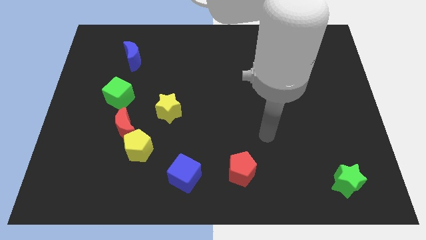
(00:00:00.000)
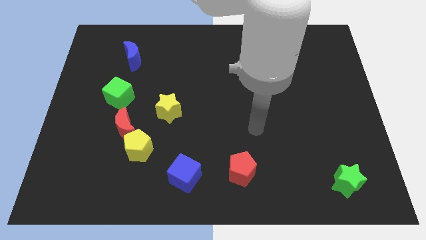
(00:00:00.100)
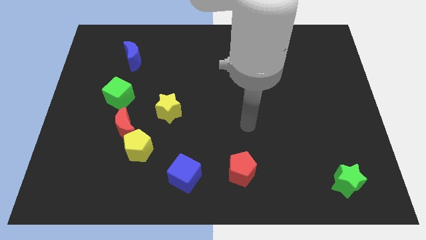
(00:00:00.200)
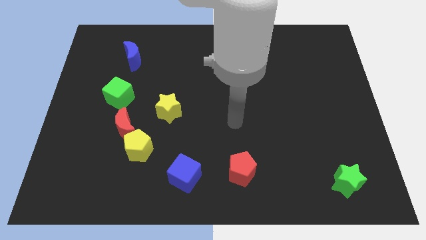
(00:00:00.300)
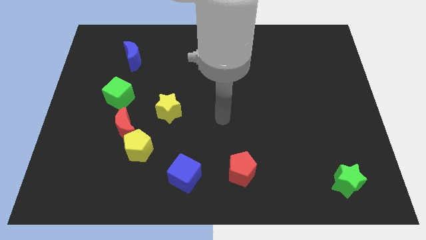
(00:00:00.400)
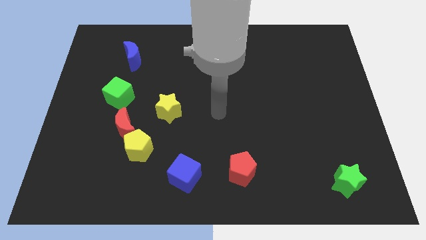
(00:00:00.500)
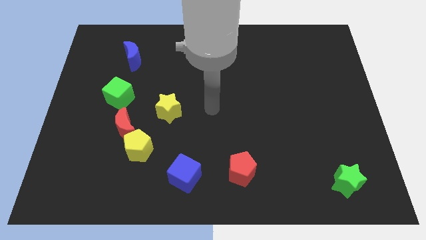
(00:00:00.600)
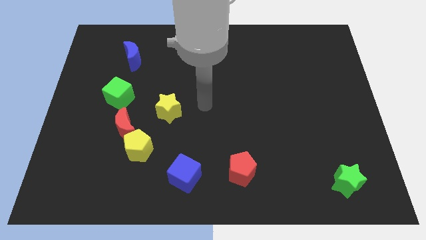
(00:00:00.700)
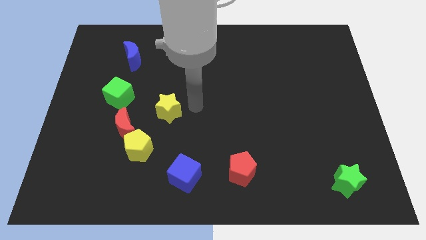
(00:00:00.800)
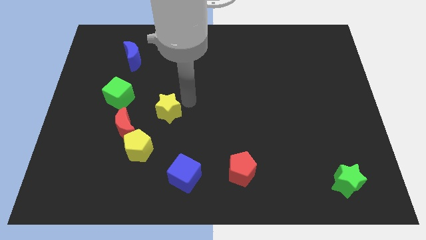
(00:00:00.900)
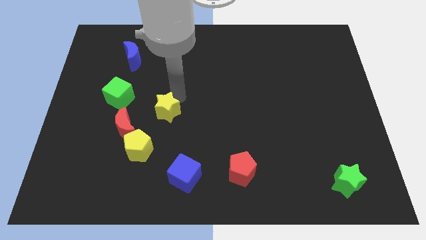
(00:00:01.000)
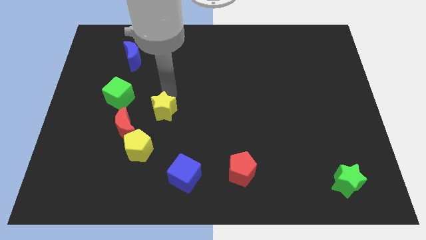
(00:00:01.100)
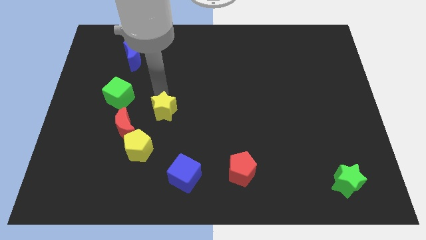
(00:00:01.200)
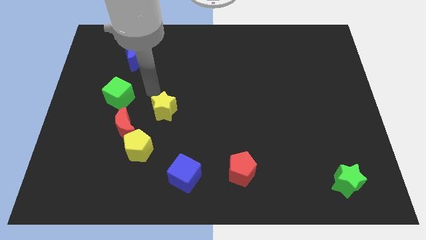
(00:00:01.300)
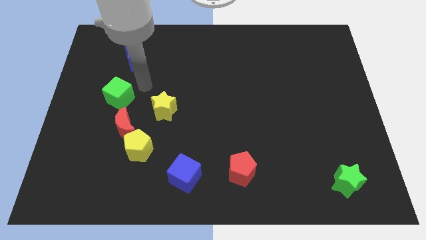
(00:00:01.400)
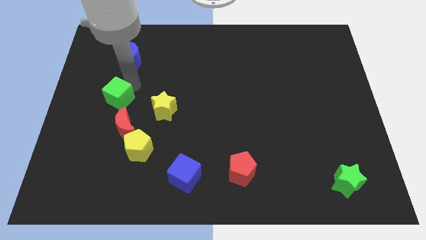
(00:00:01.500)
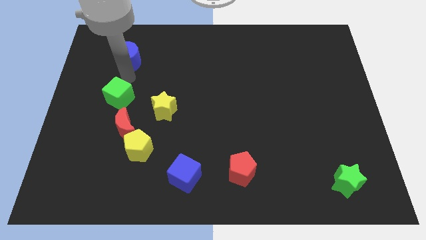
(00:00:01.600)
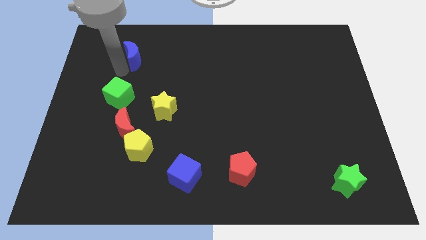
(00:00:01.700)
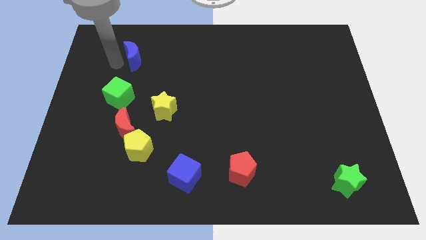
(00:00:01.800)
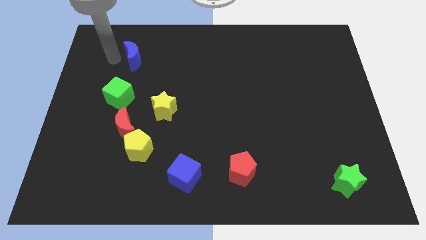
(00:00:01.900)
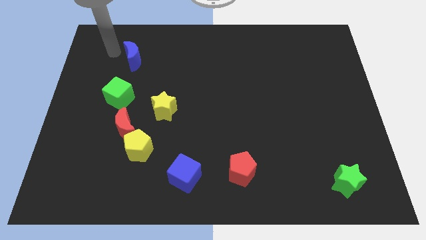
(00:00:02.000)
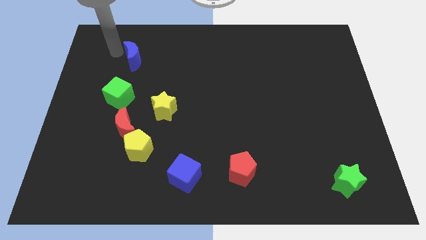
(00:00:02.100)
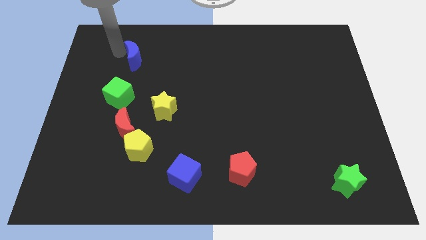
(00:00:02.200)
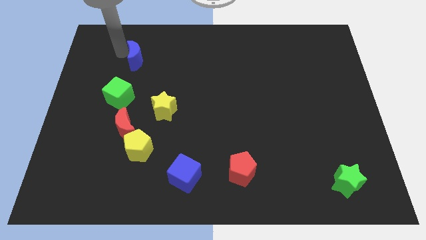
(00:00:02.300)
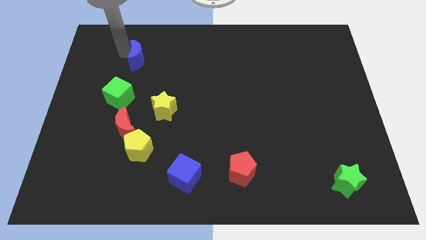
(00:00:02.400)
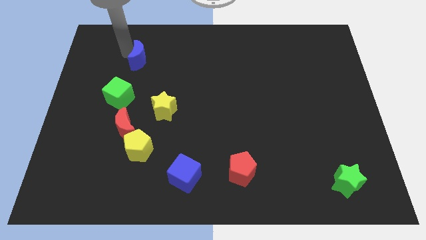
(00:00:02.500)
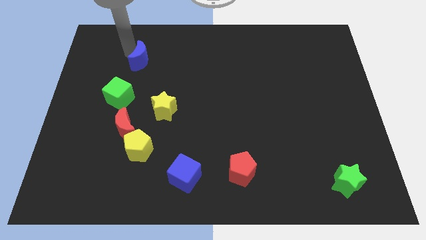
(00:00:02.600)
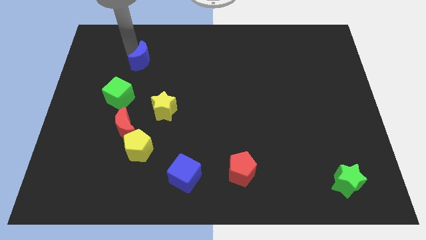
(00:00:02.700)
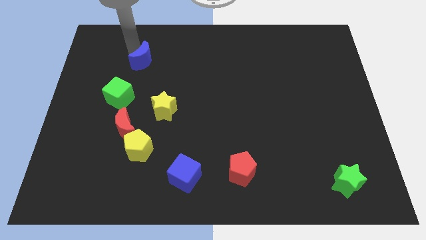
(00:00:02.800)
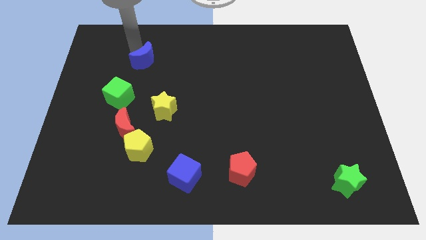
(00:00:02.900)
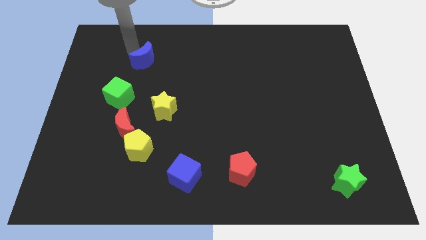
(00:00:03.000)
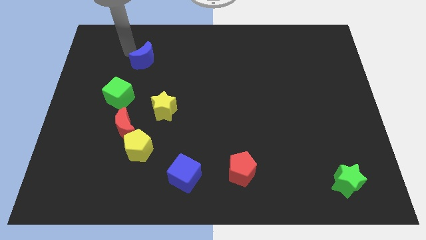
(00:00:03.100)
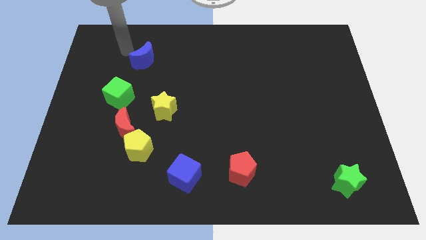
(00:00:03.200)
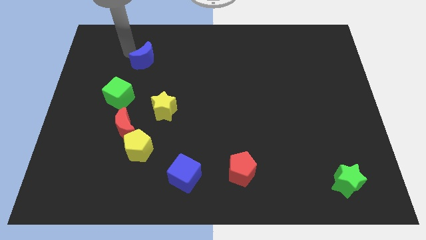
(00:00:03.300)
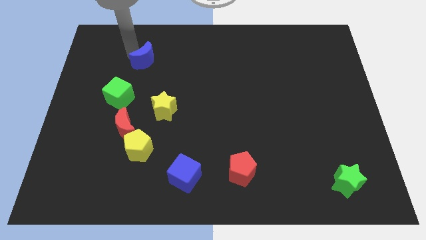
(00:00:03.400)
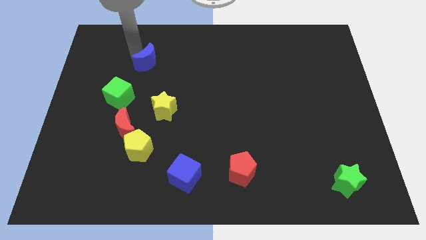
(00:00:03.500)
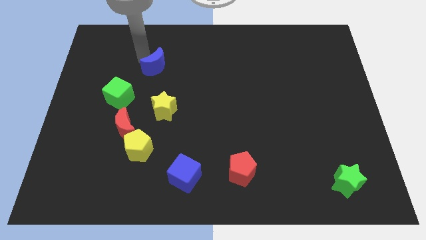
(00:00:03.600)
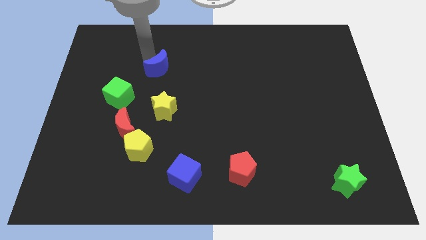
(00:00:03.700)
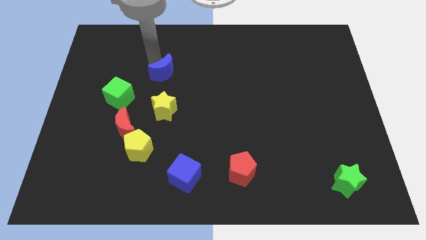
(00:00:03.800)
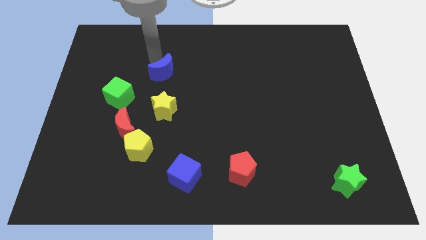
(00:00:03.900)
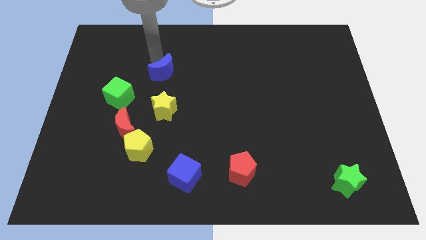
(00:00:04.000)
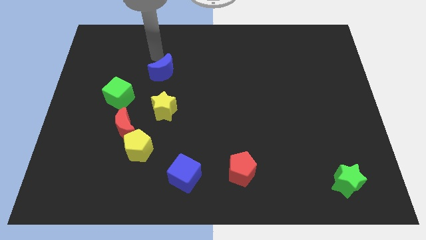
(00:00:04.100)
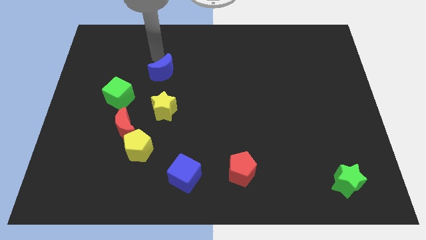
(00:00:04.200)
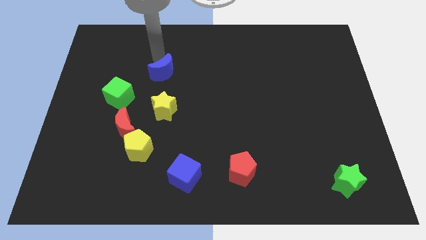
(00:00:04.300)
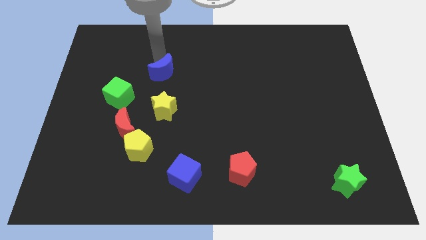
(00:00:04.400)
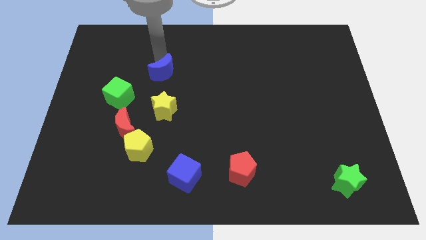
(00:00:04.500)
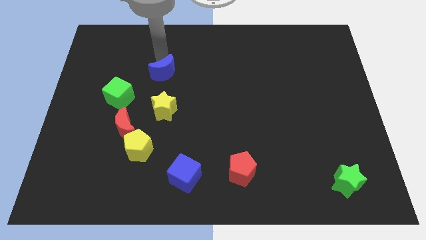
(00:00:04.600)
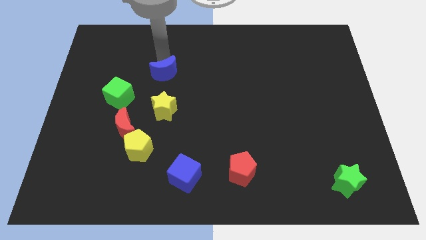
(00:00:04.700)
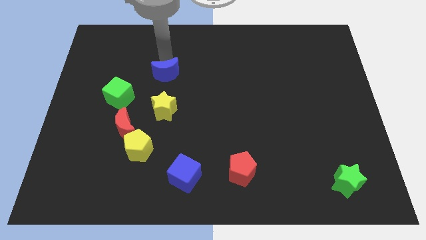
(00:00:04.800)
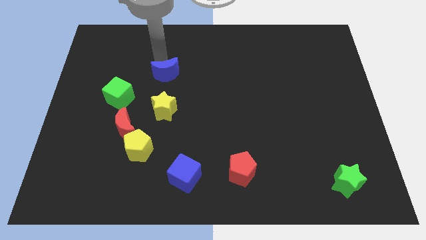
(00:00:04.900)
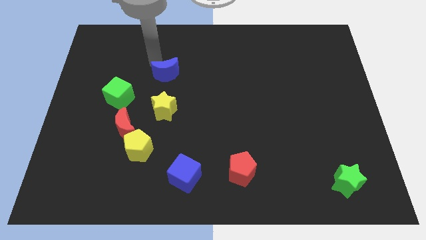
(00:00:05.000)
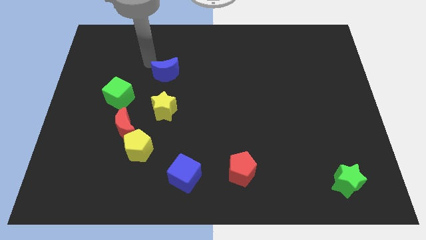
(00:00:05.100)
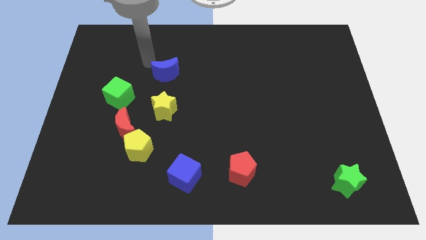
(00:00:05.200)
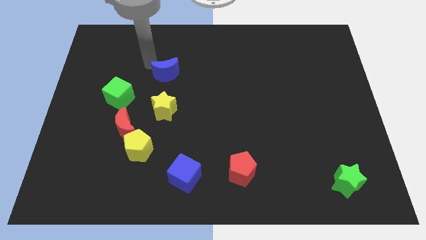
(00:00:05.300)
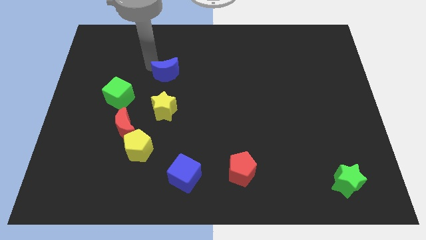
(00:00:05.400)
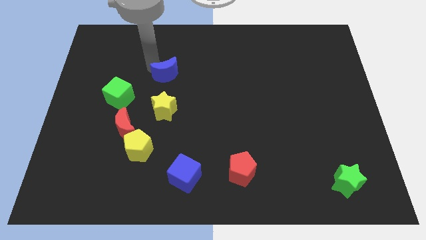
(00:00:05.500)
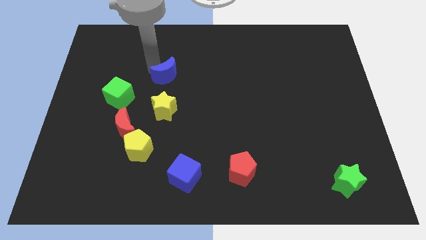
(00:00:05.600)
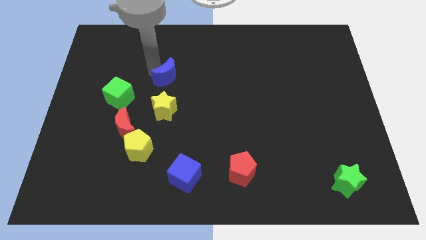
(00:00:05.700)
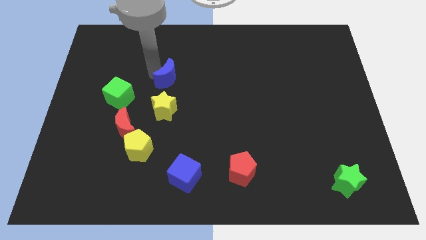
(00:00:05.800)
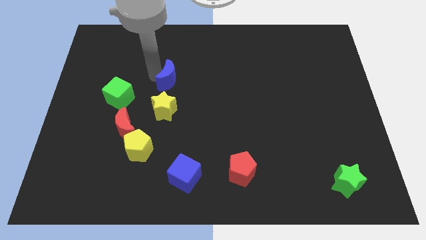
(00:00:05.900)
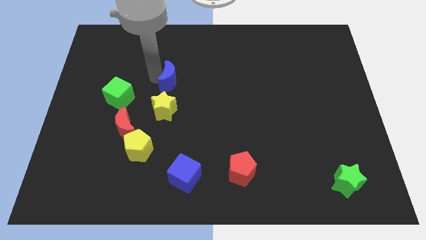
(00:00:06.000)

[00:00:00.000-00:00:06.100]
slide the blue moon to the center of the board

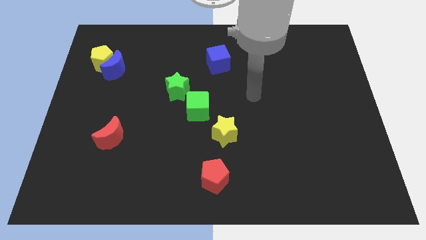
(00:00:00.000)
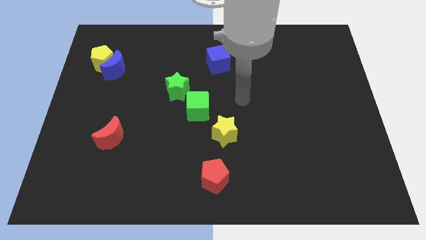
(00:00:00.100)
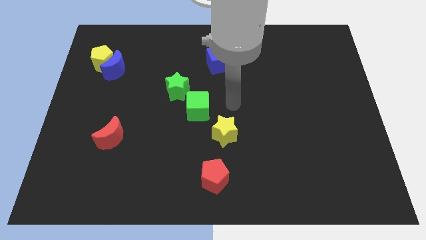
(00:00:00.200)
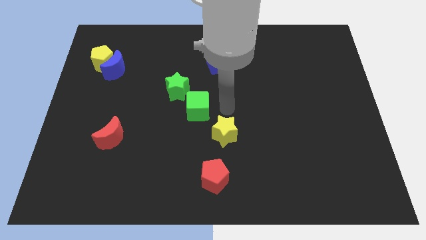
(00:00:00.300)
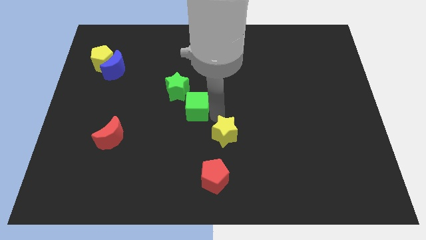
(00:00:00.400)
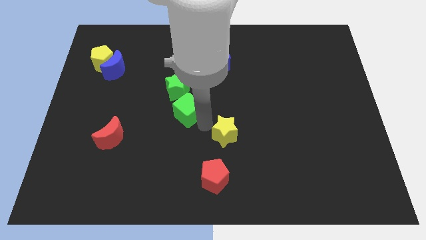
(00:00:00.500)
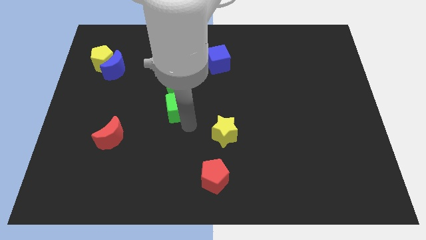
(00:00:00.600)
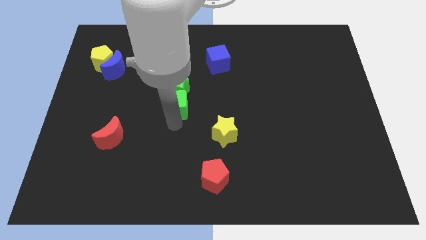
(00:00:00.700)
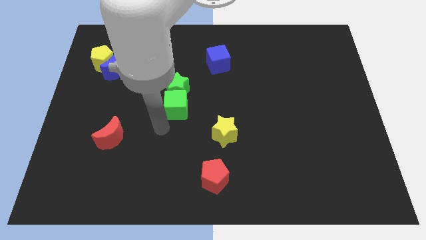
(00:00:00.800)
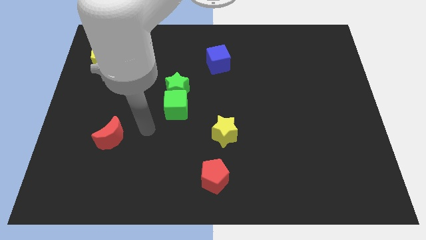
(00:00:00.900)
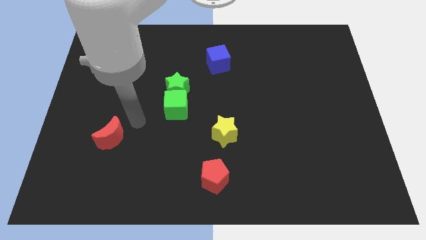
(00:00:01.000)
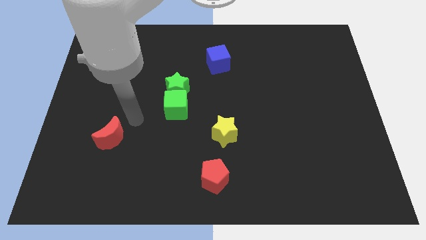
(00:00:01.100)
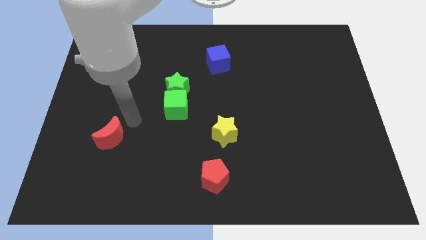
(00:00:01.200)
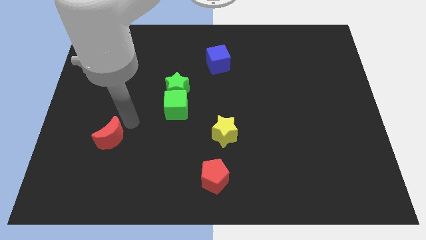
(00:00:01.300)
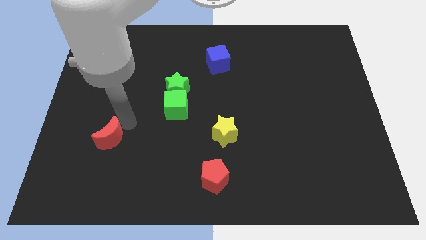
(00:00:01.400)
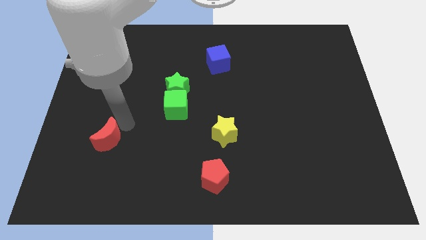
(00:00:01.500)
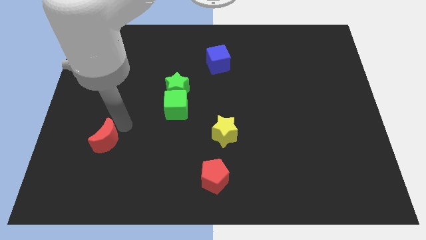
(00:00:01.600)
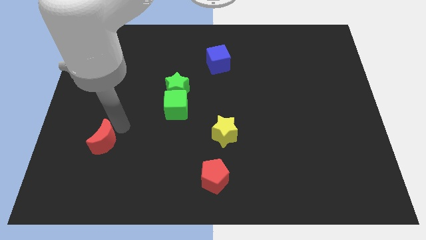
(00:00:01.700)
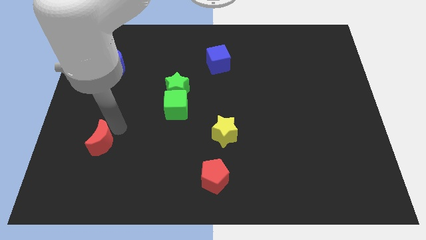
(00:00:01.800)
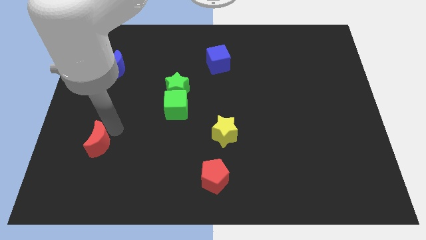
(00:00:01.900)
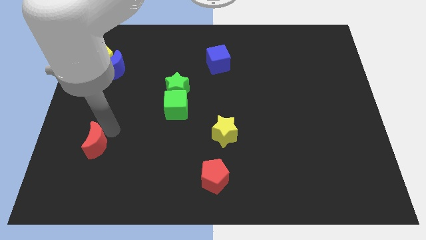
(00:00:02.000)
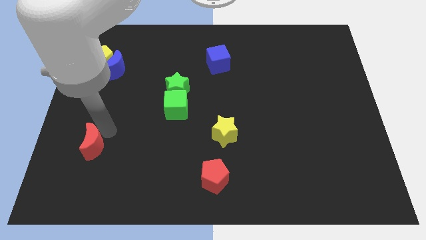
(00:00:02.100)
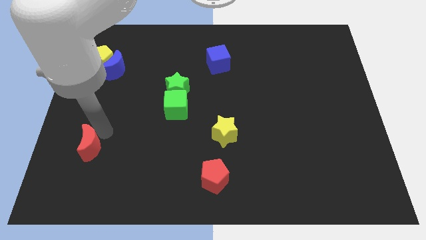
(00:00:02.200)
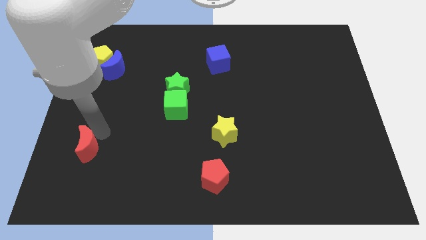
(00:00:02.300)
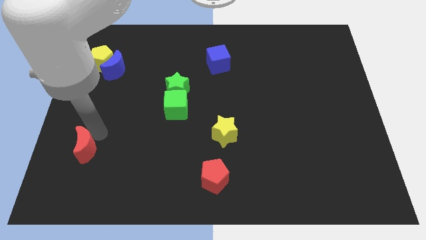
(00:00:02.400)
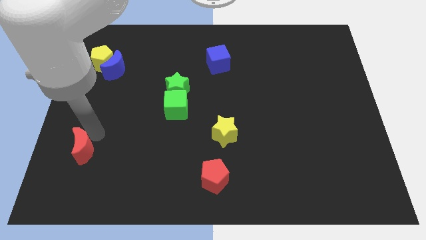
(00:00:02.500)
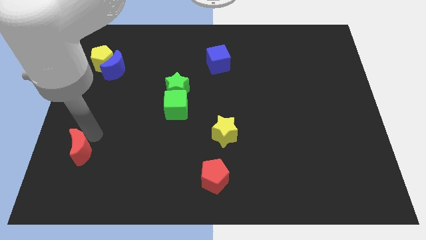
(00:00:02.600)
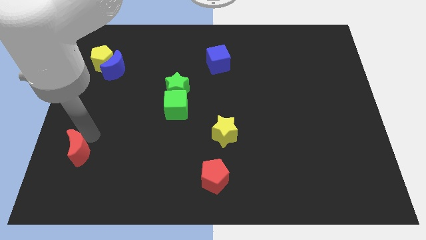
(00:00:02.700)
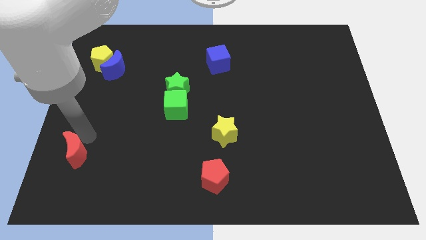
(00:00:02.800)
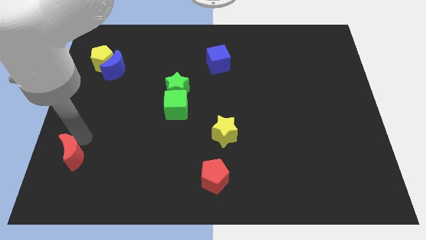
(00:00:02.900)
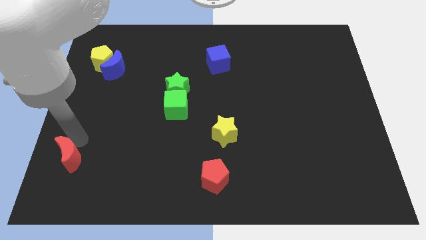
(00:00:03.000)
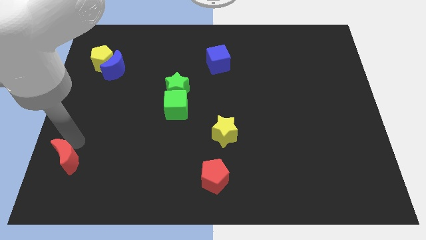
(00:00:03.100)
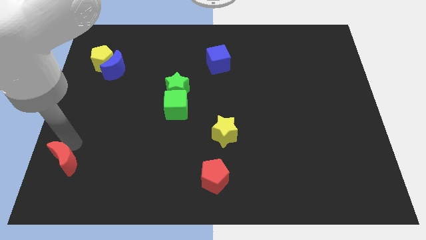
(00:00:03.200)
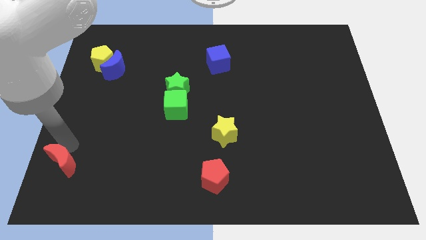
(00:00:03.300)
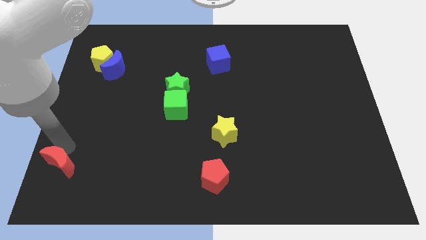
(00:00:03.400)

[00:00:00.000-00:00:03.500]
move the red moon to the lower left corner
